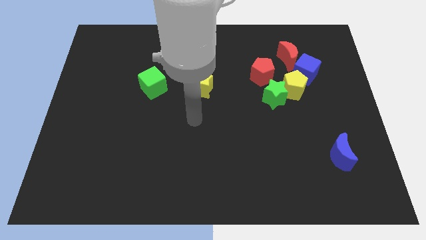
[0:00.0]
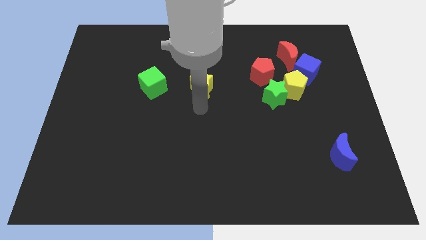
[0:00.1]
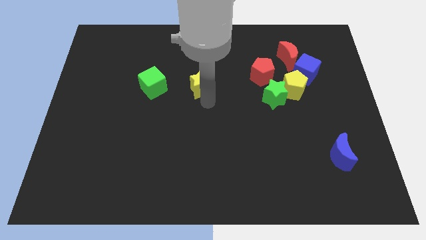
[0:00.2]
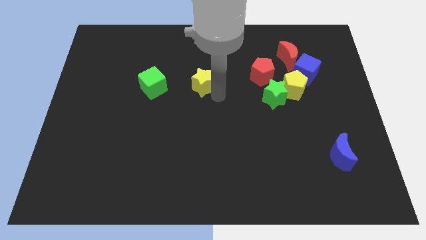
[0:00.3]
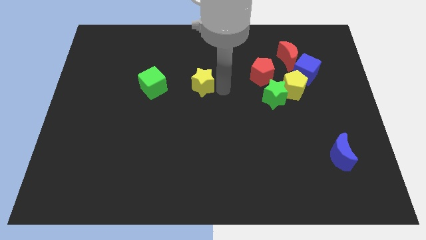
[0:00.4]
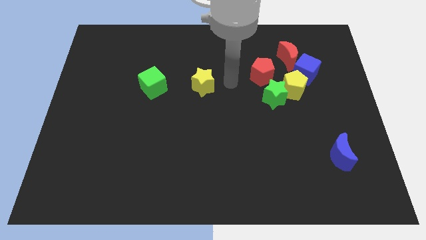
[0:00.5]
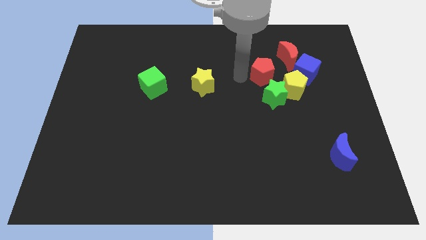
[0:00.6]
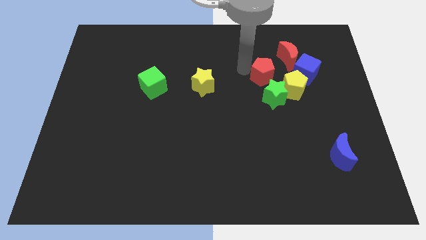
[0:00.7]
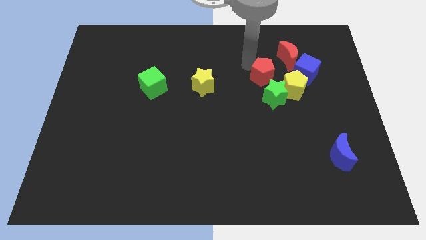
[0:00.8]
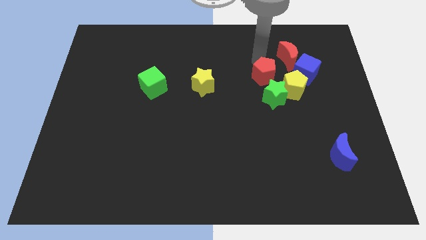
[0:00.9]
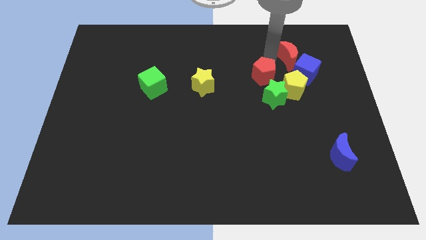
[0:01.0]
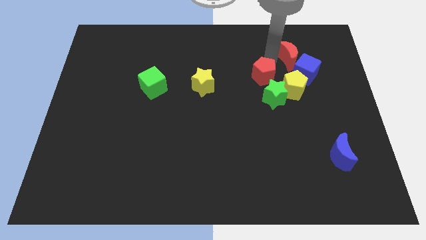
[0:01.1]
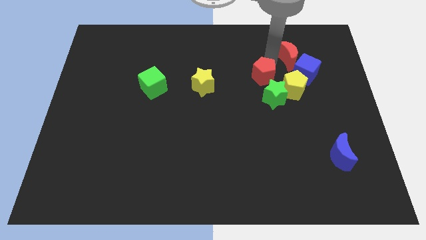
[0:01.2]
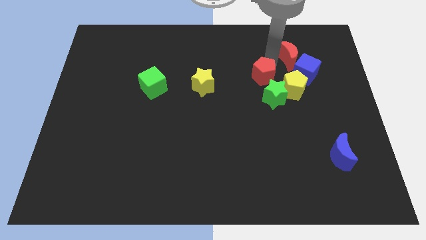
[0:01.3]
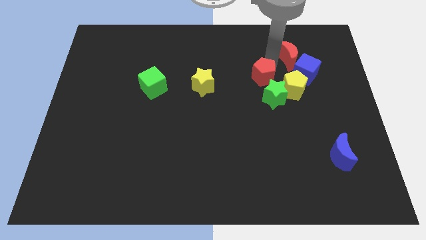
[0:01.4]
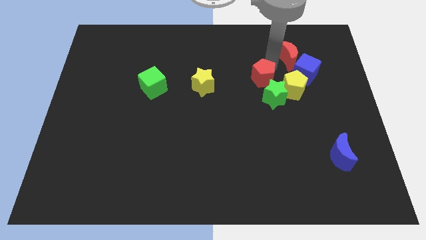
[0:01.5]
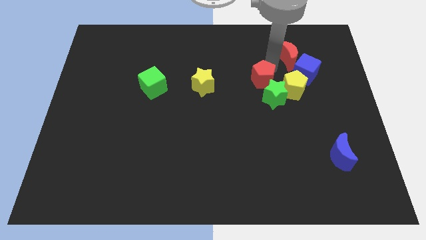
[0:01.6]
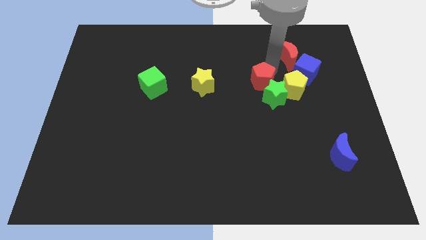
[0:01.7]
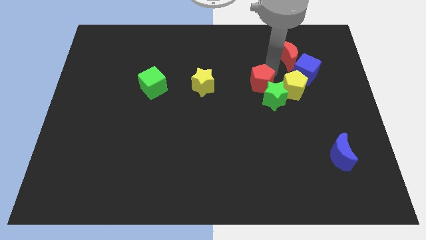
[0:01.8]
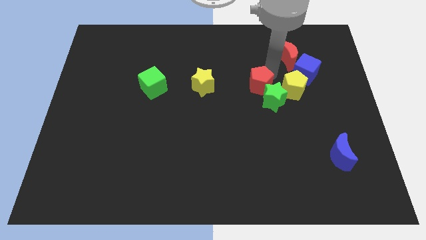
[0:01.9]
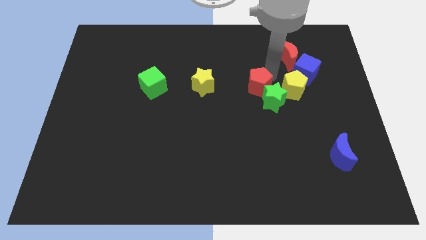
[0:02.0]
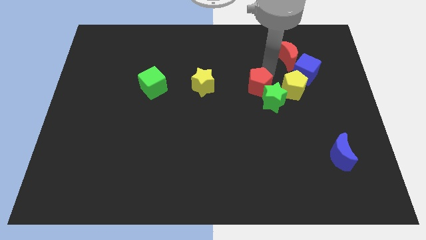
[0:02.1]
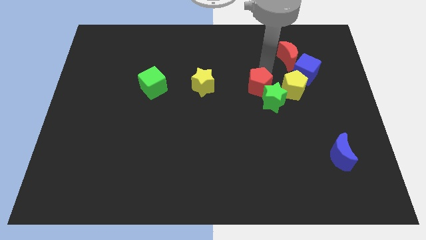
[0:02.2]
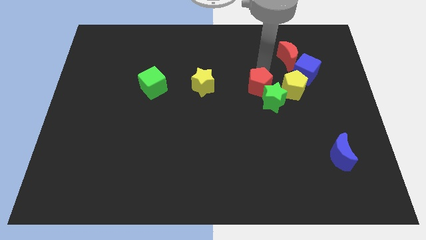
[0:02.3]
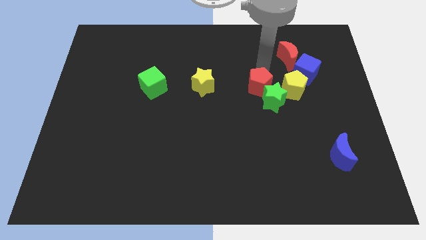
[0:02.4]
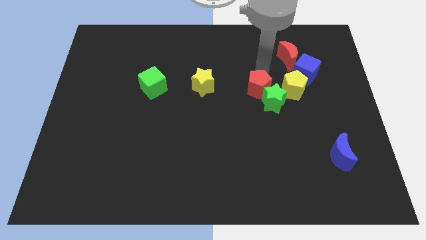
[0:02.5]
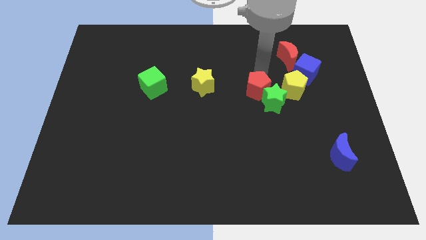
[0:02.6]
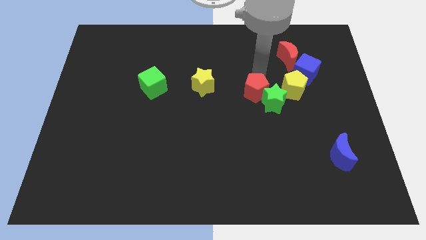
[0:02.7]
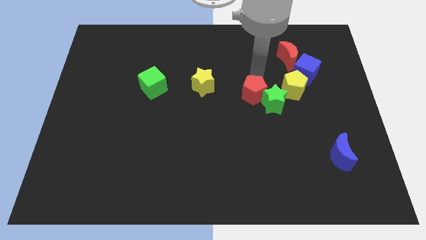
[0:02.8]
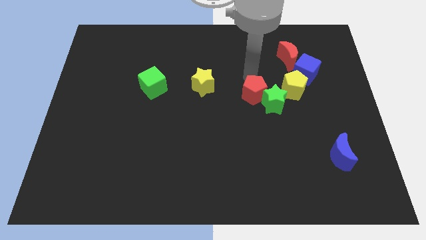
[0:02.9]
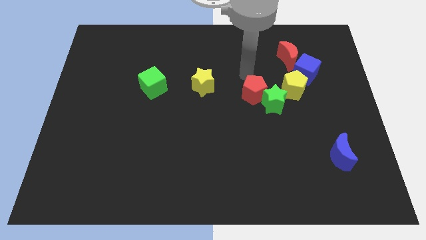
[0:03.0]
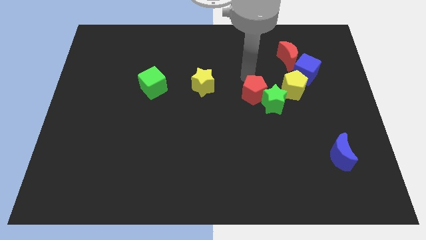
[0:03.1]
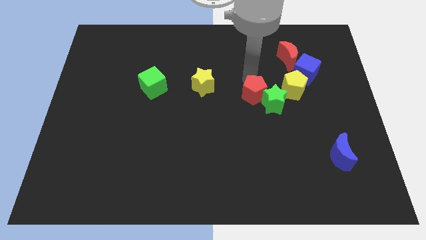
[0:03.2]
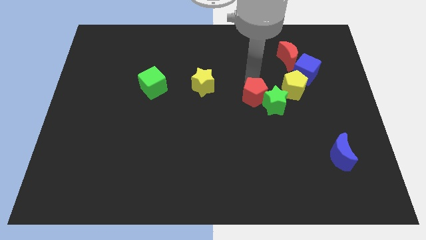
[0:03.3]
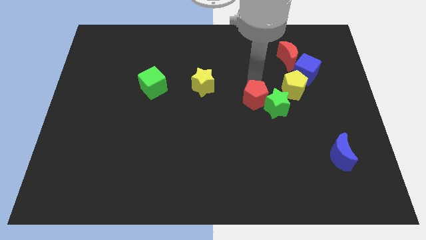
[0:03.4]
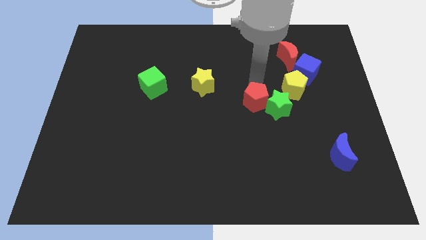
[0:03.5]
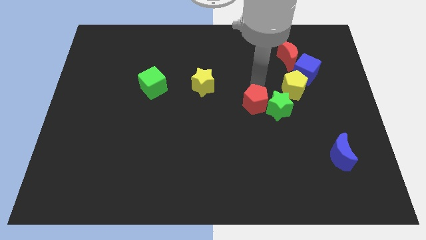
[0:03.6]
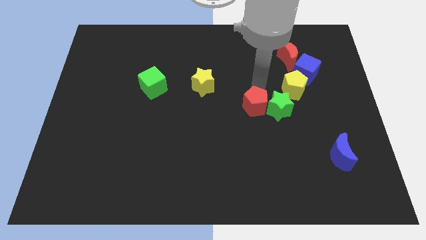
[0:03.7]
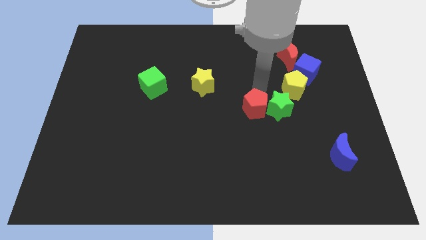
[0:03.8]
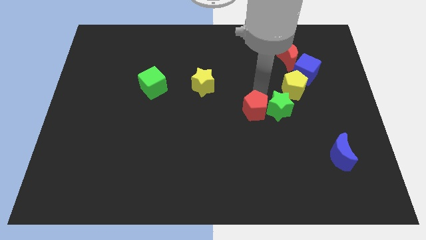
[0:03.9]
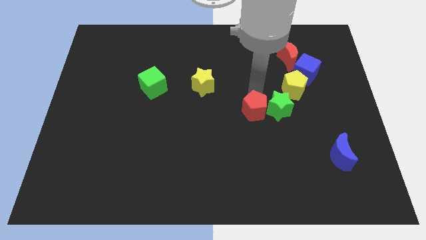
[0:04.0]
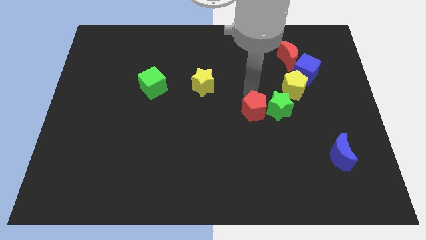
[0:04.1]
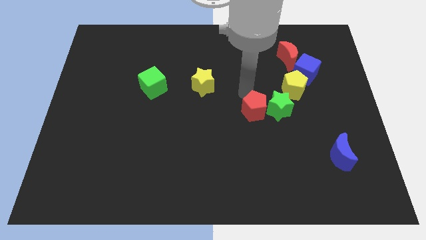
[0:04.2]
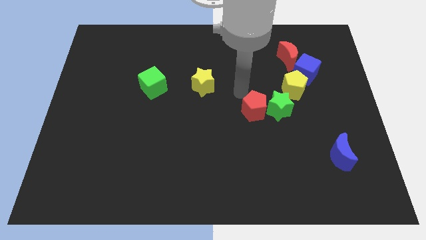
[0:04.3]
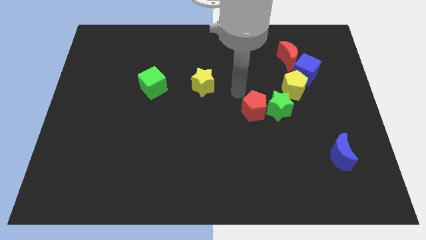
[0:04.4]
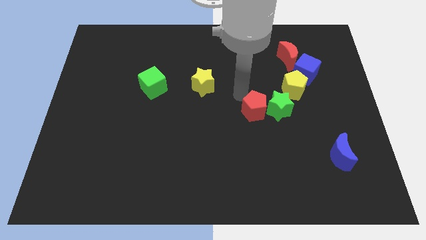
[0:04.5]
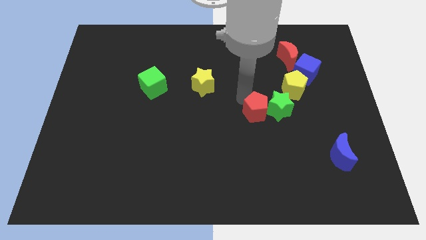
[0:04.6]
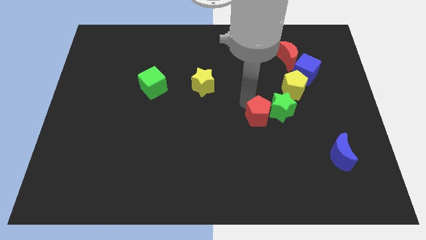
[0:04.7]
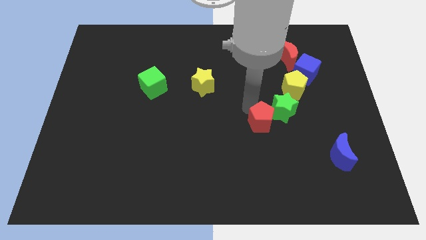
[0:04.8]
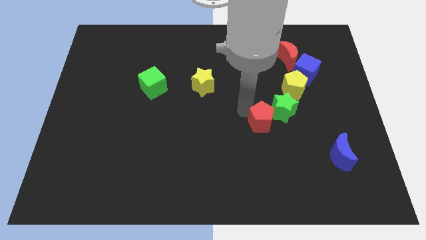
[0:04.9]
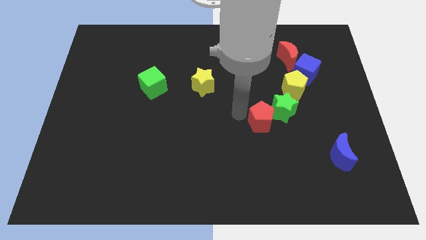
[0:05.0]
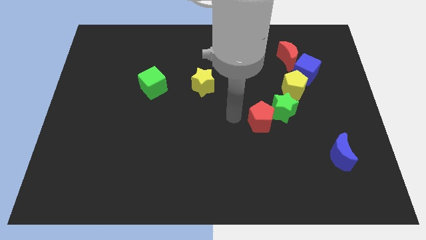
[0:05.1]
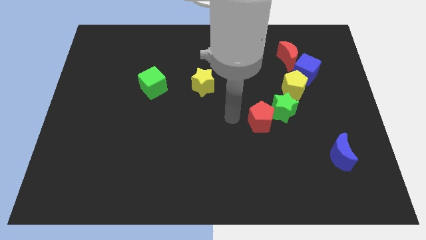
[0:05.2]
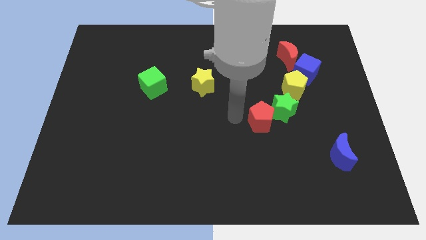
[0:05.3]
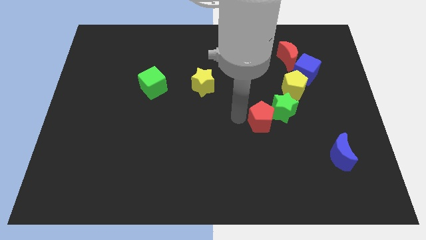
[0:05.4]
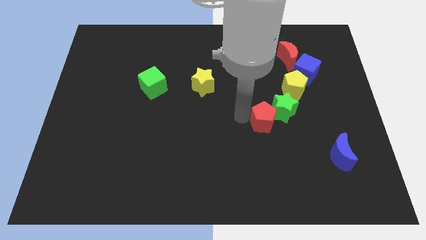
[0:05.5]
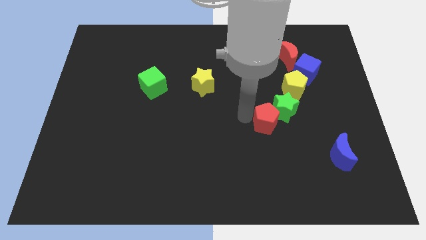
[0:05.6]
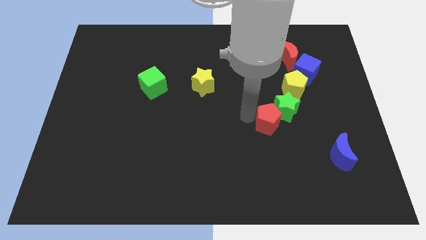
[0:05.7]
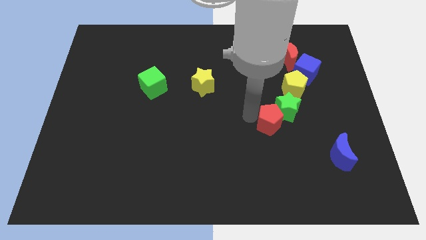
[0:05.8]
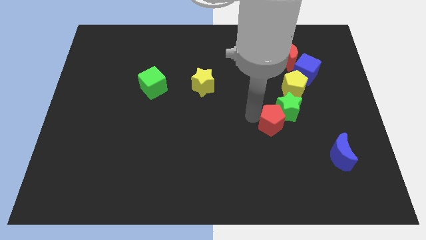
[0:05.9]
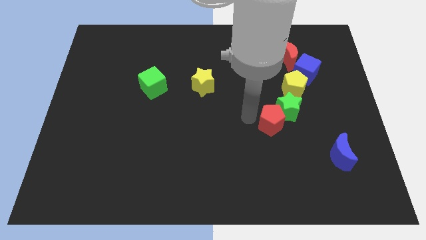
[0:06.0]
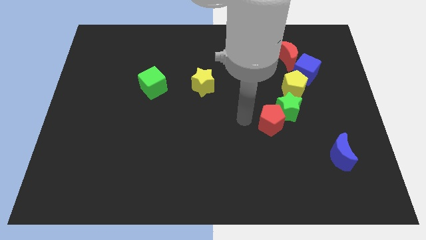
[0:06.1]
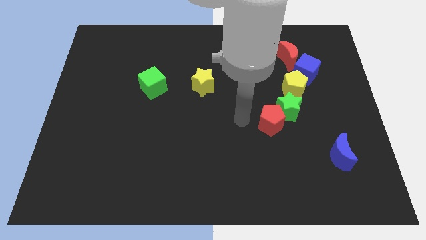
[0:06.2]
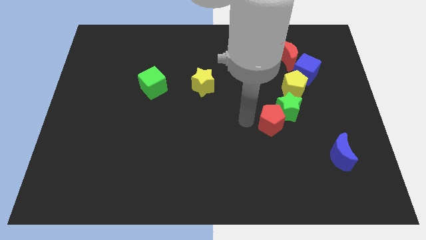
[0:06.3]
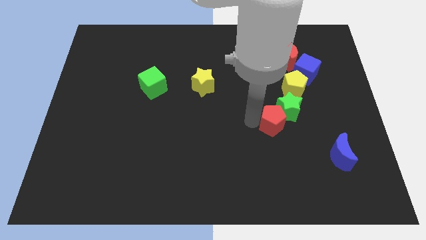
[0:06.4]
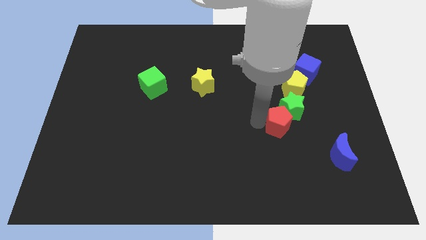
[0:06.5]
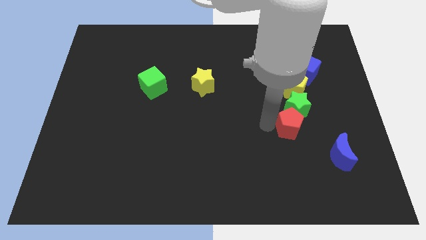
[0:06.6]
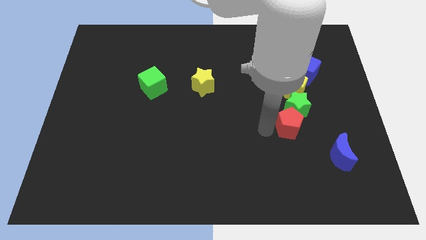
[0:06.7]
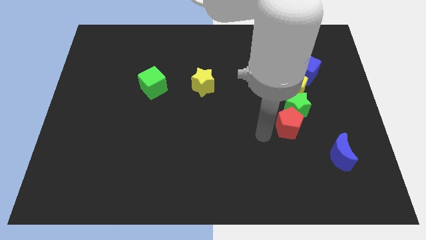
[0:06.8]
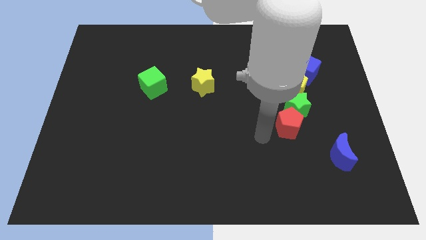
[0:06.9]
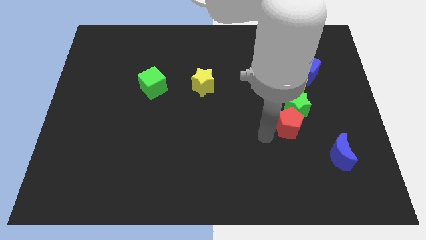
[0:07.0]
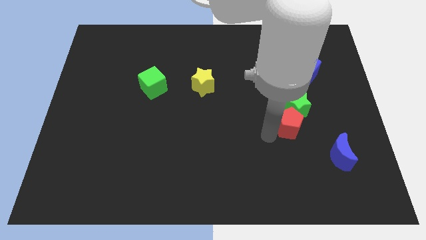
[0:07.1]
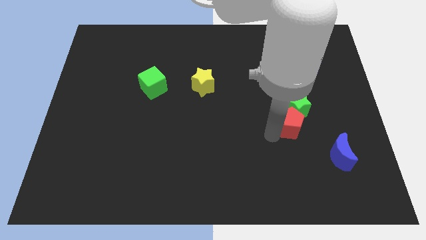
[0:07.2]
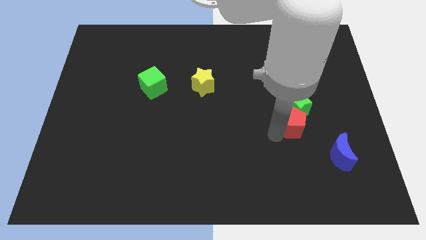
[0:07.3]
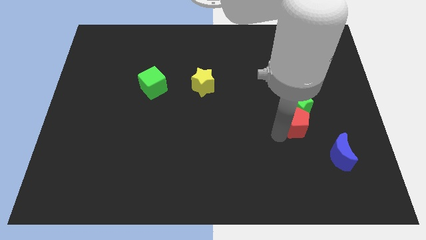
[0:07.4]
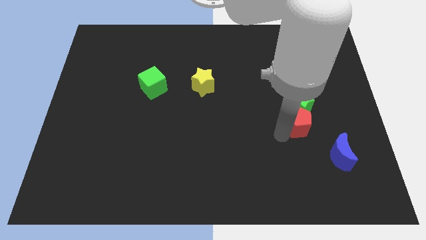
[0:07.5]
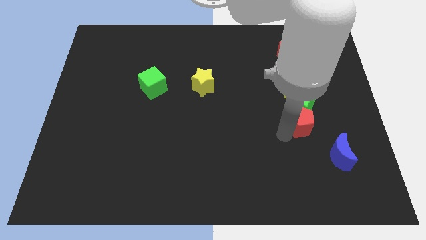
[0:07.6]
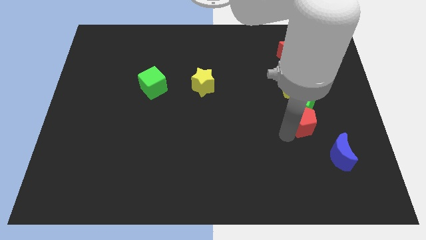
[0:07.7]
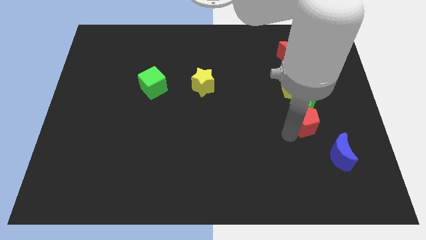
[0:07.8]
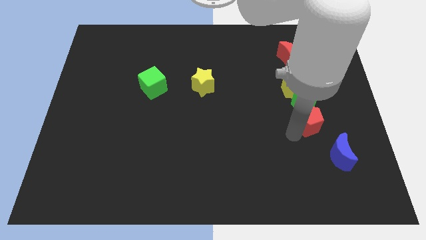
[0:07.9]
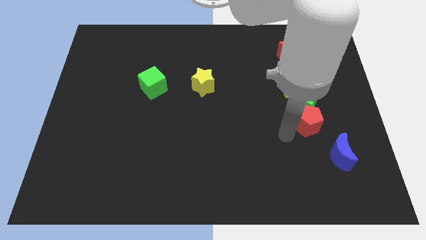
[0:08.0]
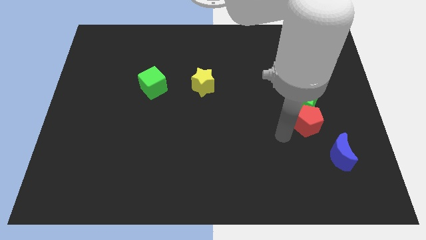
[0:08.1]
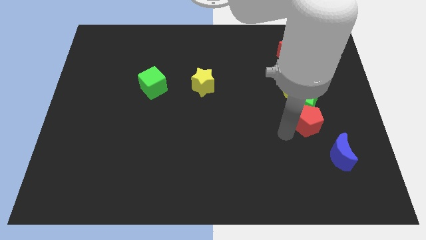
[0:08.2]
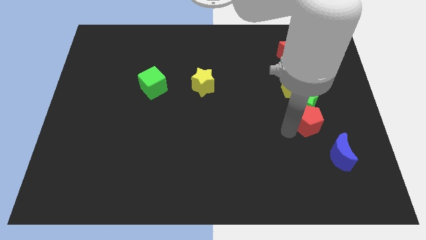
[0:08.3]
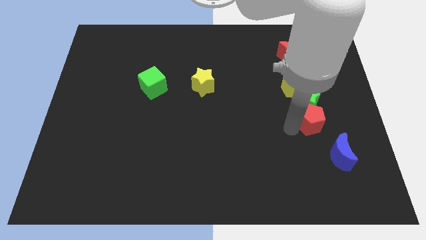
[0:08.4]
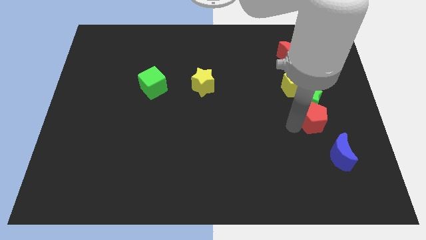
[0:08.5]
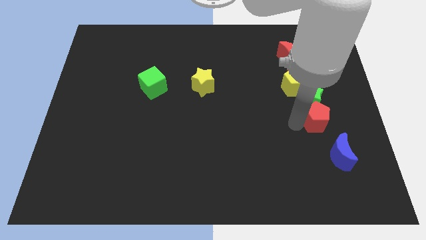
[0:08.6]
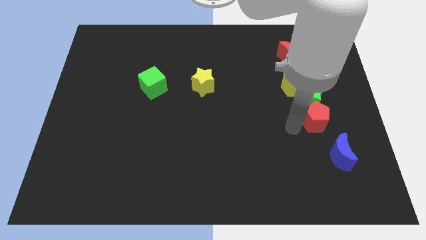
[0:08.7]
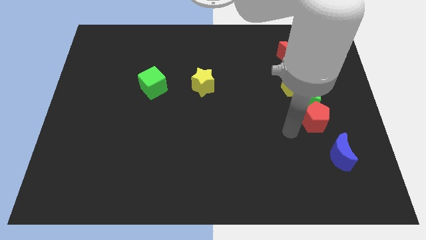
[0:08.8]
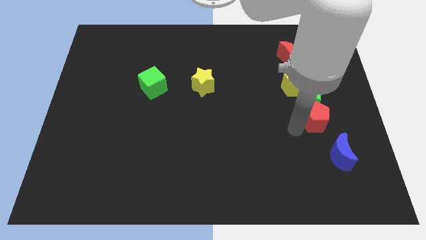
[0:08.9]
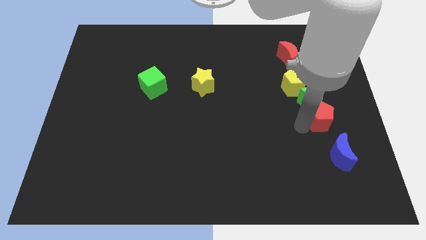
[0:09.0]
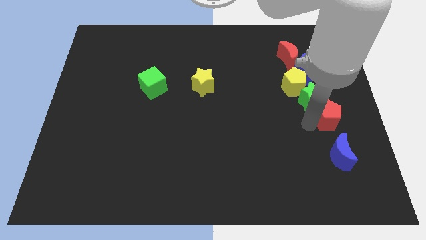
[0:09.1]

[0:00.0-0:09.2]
put the red pentagon to the right side of the board
